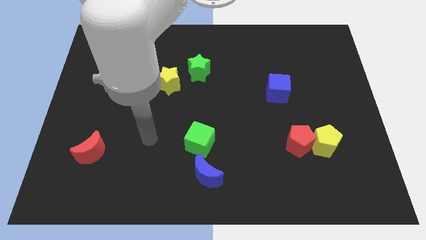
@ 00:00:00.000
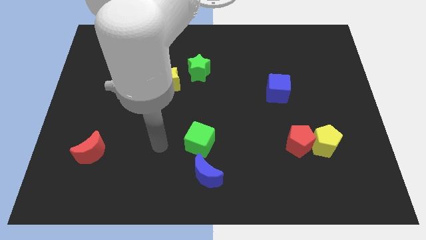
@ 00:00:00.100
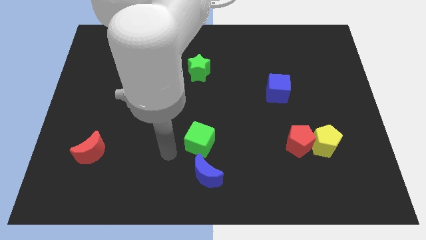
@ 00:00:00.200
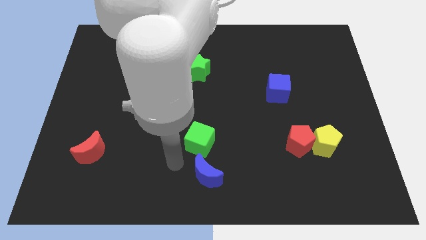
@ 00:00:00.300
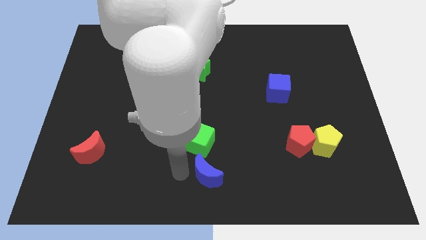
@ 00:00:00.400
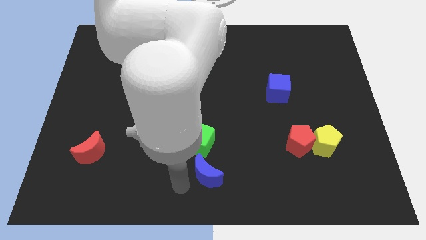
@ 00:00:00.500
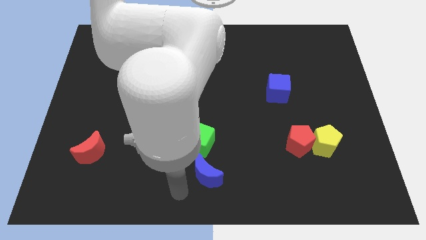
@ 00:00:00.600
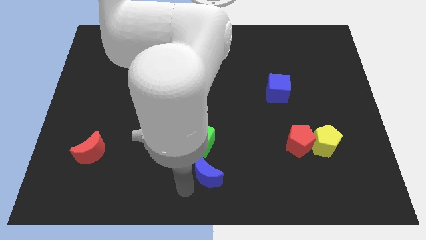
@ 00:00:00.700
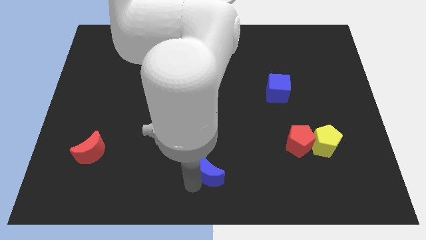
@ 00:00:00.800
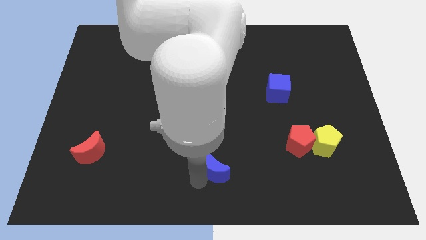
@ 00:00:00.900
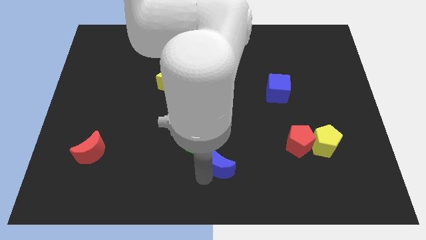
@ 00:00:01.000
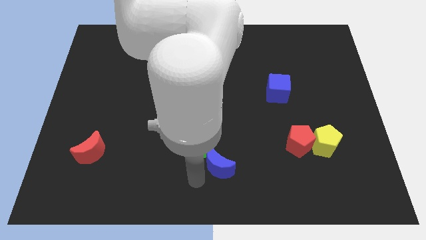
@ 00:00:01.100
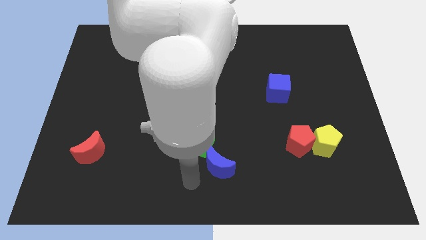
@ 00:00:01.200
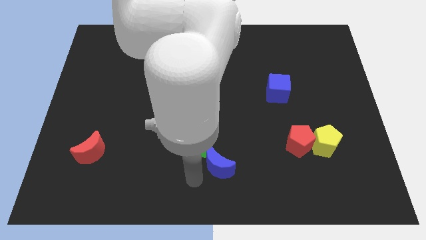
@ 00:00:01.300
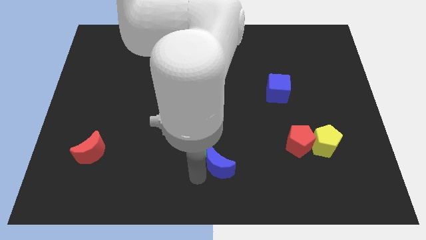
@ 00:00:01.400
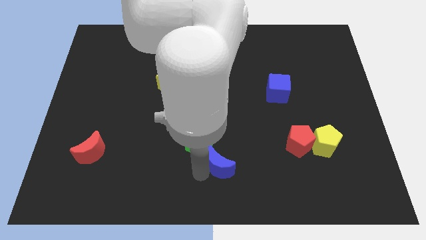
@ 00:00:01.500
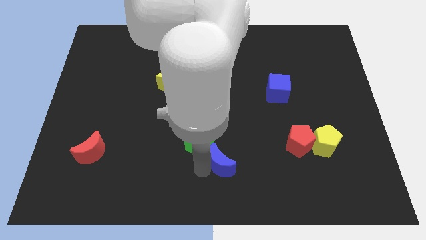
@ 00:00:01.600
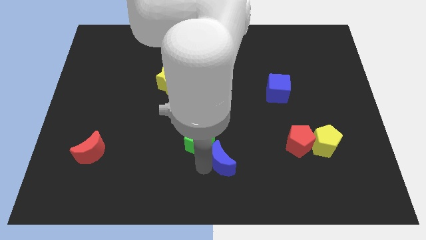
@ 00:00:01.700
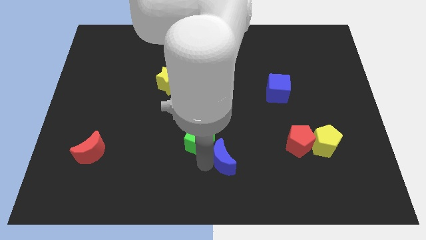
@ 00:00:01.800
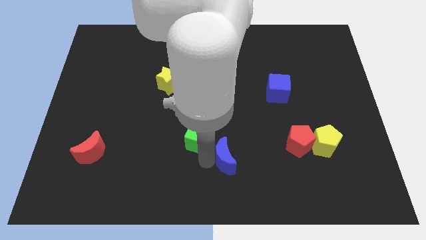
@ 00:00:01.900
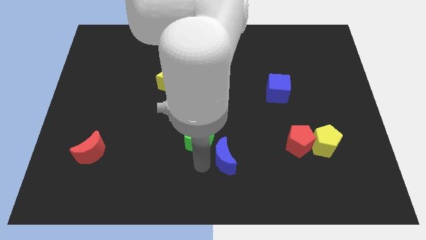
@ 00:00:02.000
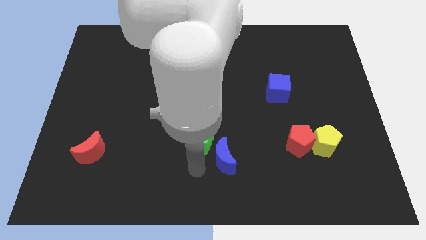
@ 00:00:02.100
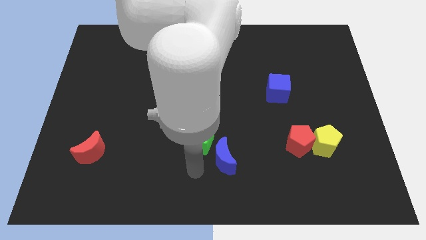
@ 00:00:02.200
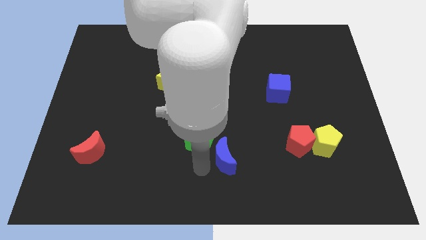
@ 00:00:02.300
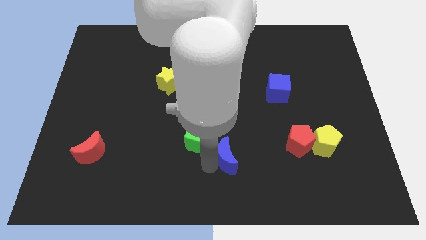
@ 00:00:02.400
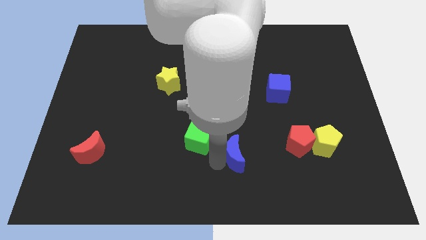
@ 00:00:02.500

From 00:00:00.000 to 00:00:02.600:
slide the blue moon somewhat up and right diagonally

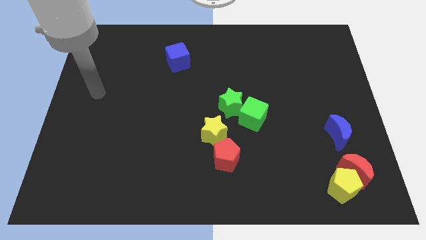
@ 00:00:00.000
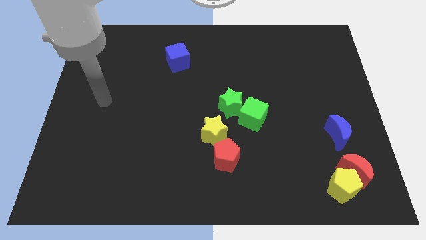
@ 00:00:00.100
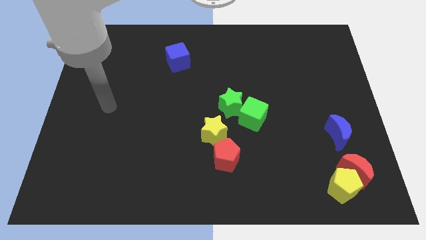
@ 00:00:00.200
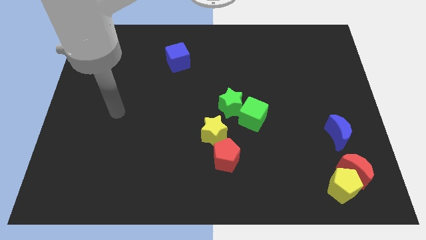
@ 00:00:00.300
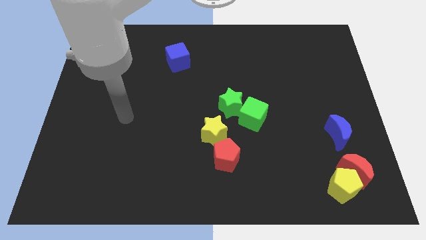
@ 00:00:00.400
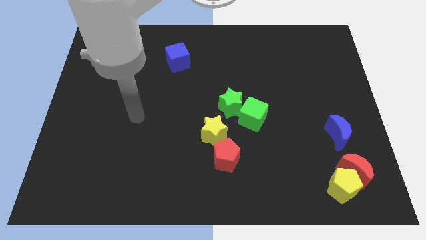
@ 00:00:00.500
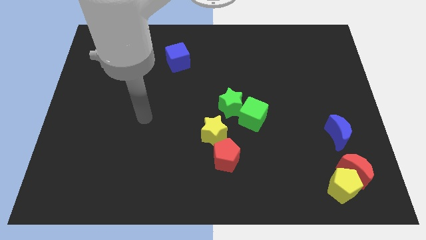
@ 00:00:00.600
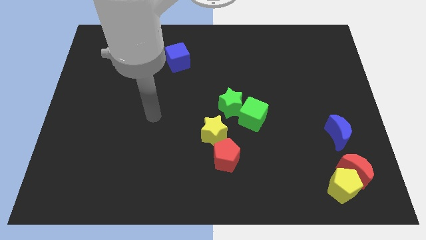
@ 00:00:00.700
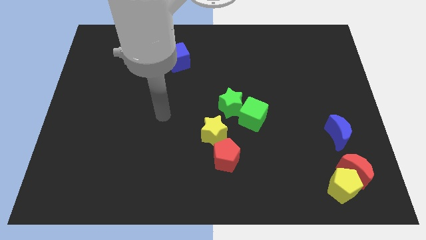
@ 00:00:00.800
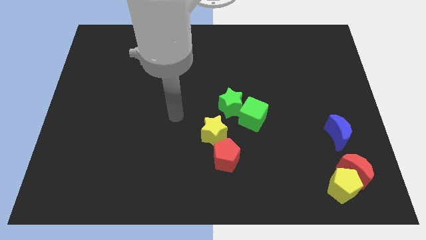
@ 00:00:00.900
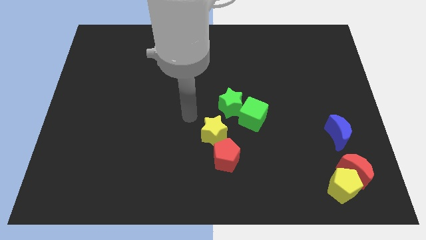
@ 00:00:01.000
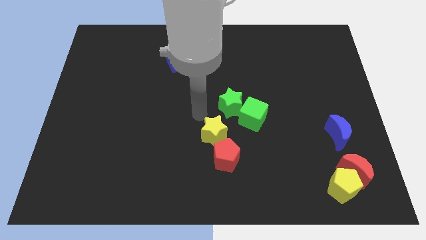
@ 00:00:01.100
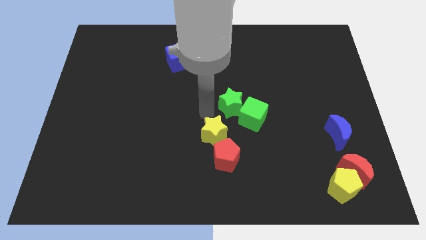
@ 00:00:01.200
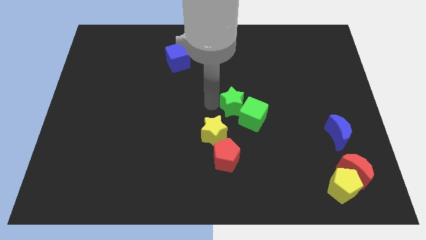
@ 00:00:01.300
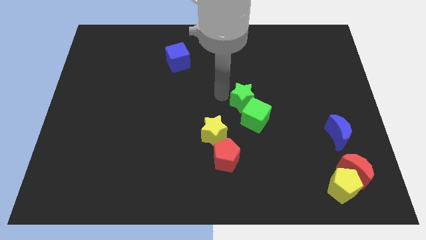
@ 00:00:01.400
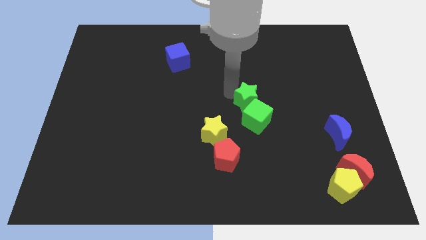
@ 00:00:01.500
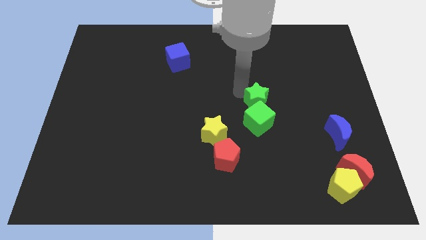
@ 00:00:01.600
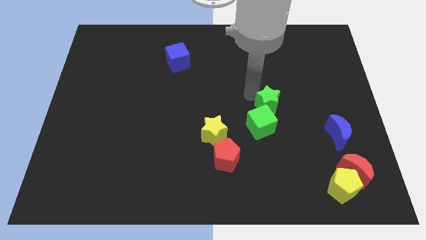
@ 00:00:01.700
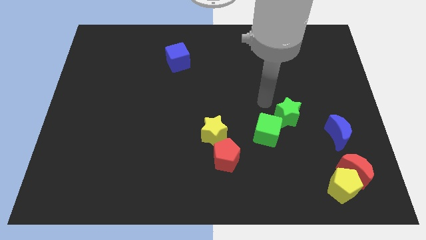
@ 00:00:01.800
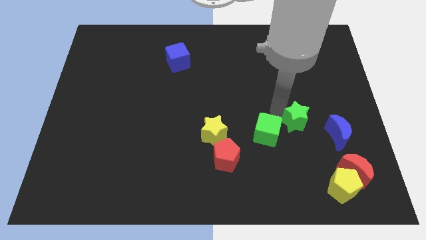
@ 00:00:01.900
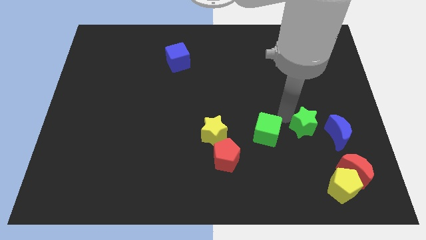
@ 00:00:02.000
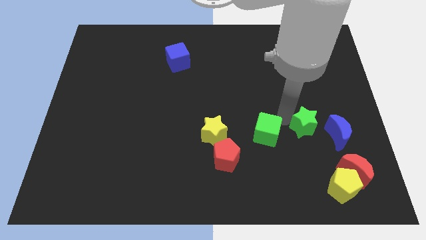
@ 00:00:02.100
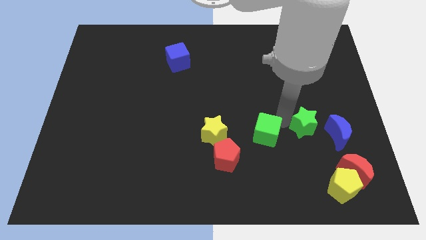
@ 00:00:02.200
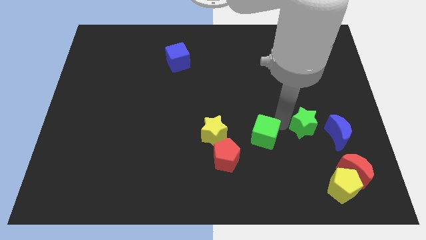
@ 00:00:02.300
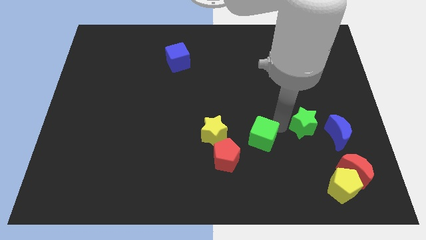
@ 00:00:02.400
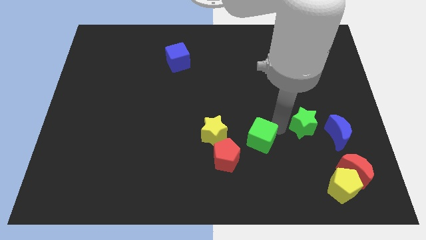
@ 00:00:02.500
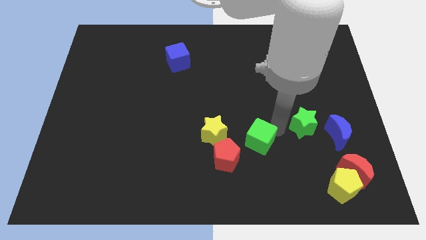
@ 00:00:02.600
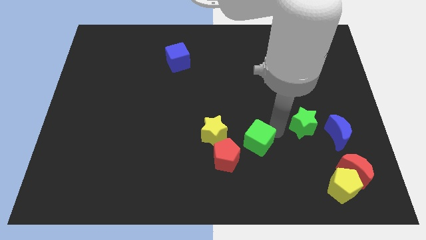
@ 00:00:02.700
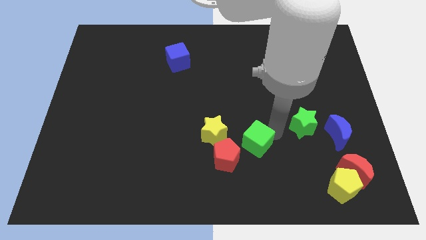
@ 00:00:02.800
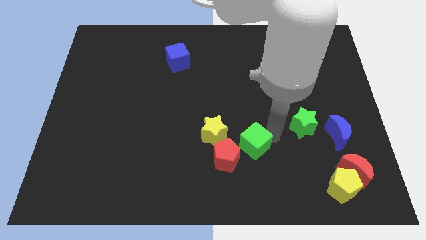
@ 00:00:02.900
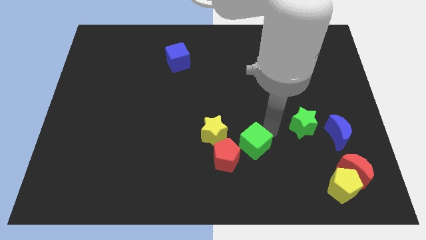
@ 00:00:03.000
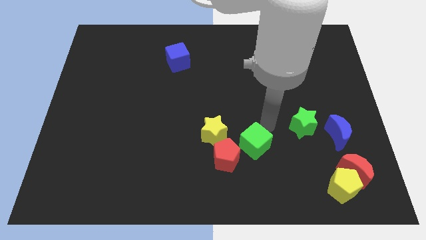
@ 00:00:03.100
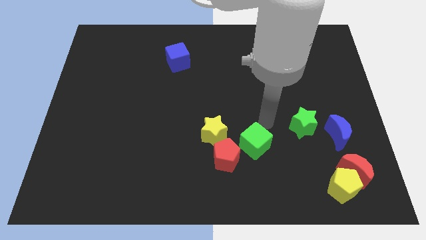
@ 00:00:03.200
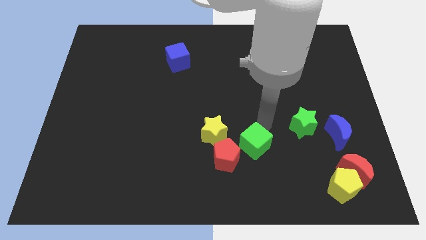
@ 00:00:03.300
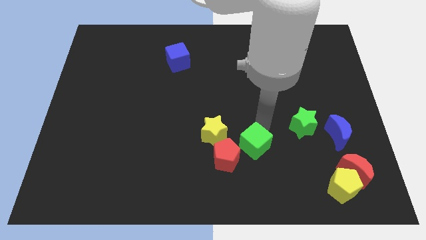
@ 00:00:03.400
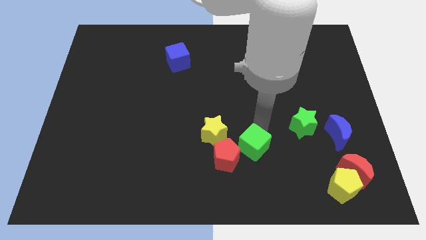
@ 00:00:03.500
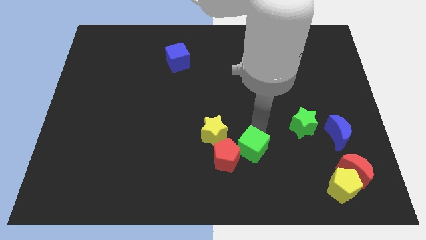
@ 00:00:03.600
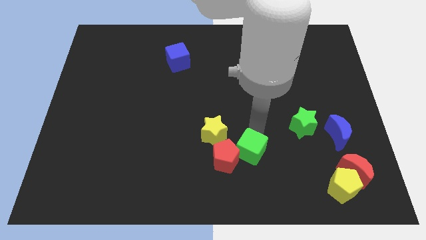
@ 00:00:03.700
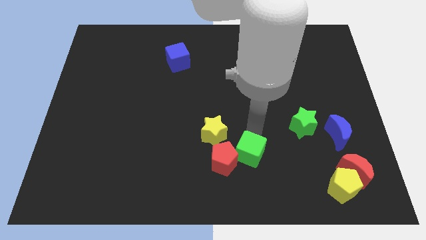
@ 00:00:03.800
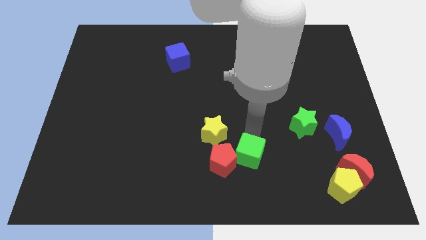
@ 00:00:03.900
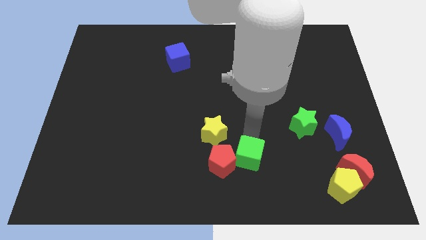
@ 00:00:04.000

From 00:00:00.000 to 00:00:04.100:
move the green cube downwards and left diagonally a little

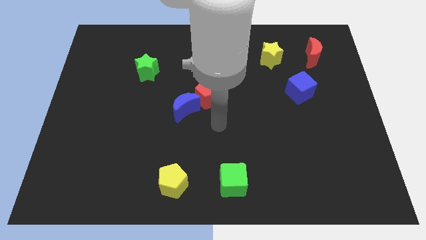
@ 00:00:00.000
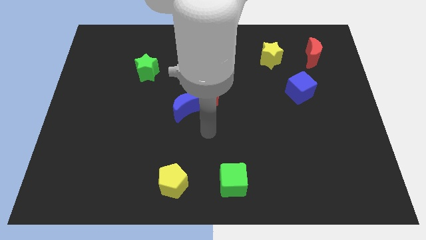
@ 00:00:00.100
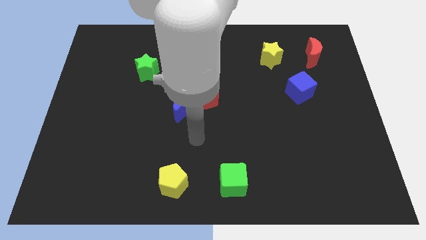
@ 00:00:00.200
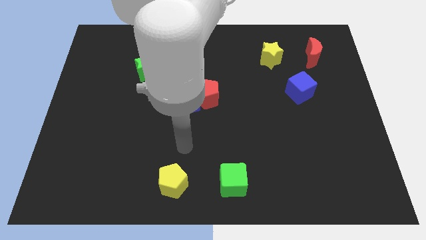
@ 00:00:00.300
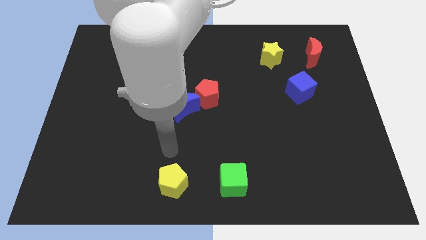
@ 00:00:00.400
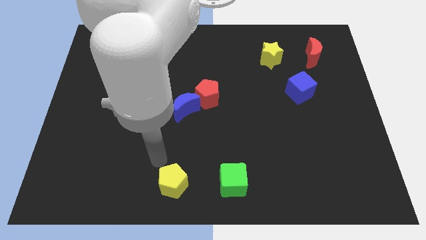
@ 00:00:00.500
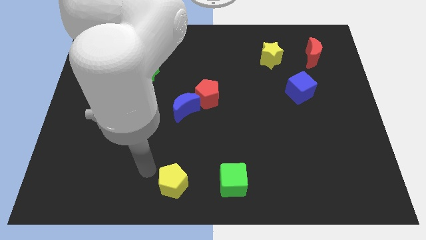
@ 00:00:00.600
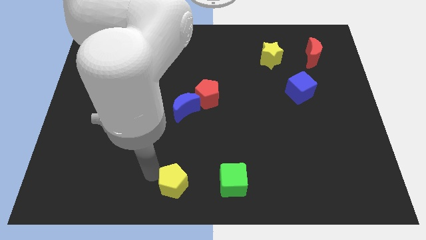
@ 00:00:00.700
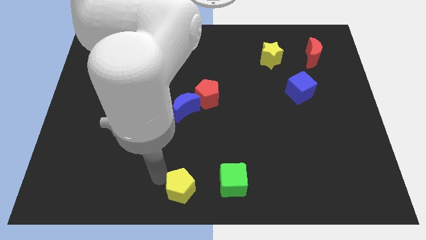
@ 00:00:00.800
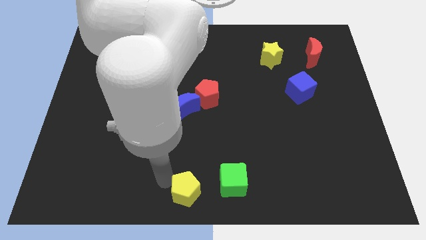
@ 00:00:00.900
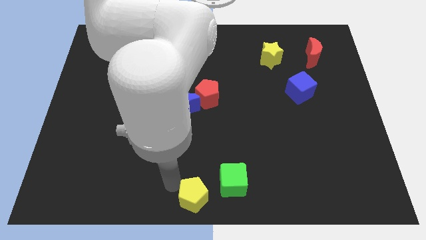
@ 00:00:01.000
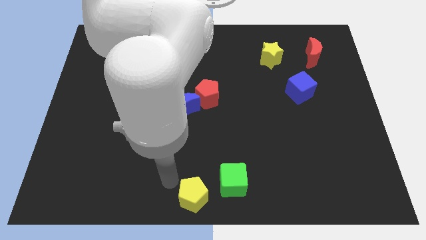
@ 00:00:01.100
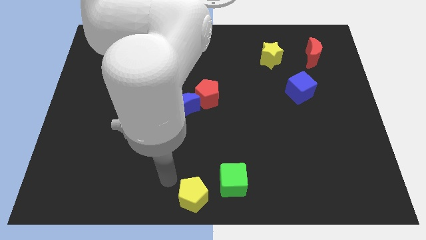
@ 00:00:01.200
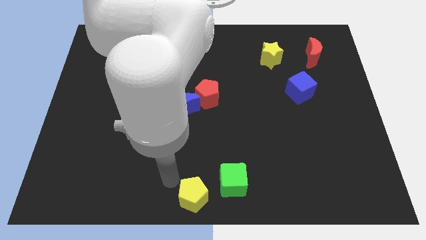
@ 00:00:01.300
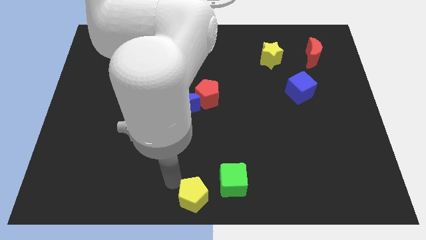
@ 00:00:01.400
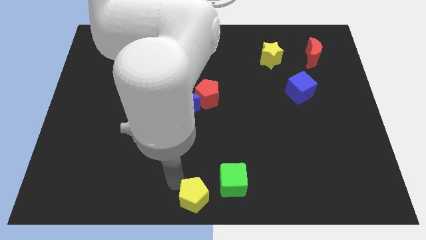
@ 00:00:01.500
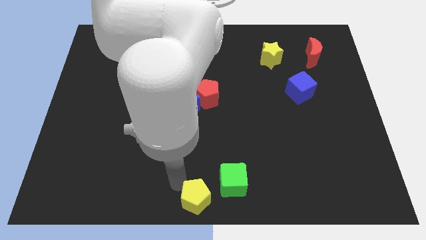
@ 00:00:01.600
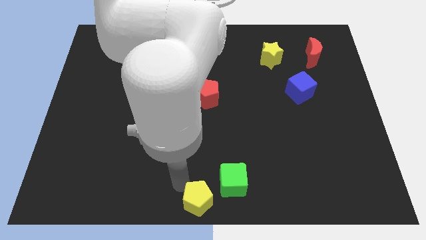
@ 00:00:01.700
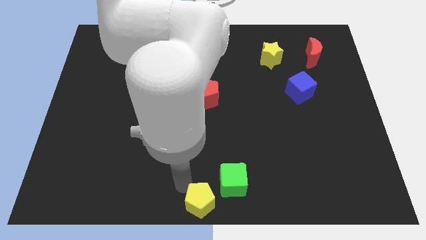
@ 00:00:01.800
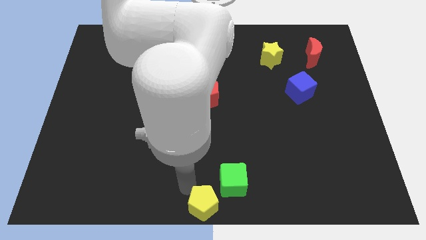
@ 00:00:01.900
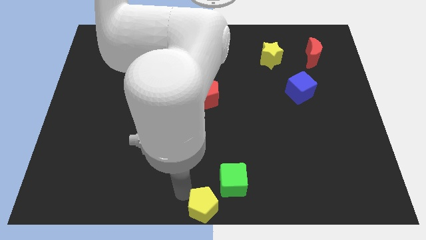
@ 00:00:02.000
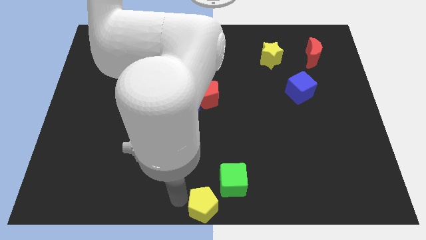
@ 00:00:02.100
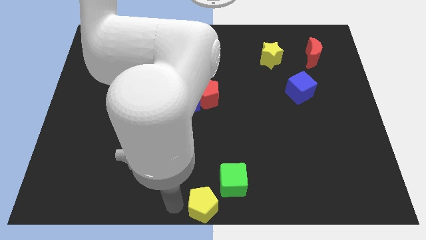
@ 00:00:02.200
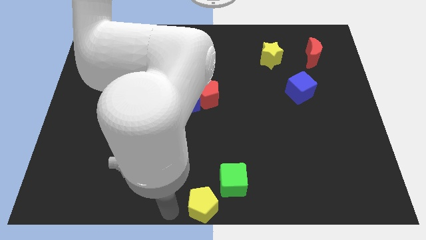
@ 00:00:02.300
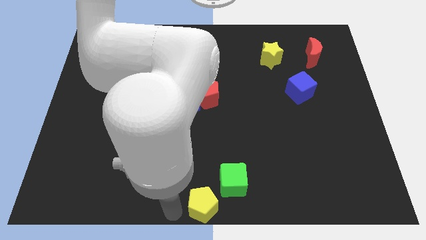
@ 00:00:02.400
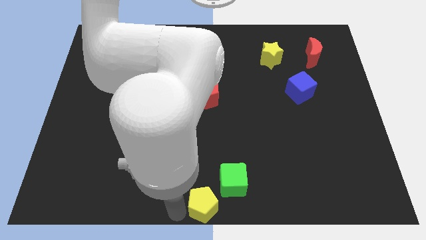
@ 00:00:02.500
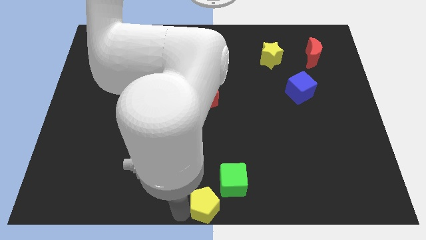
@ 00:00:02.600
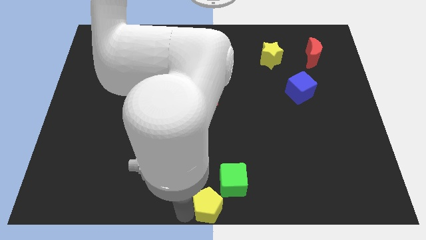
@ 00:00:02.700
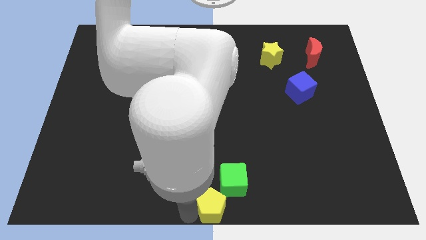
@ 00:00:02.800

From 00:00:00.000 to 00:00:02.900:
slightly move the yellow pentagon right
